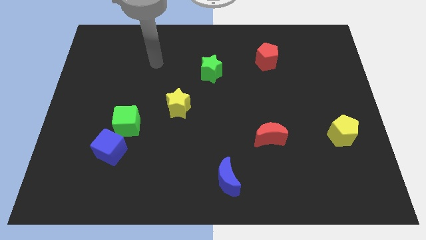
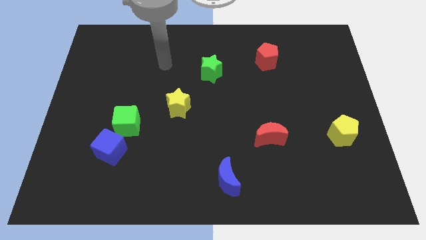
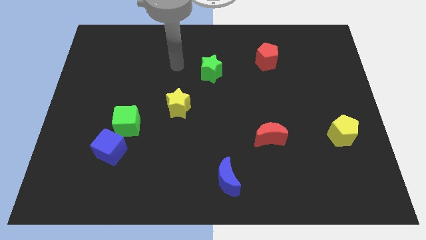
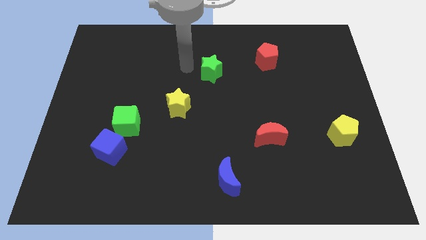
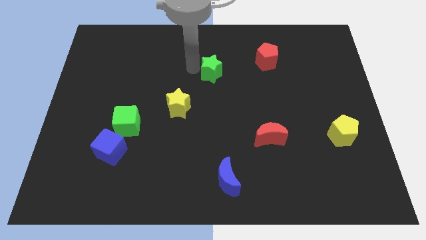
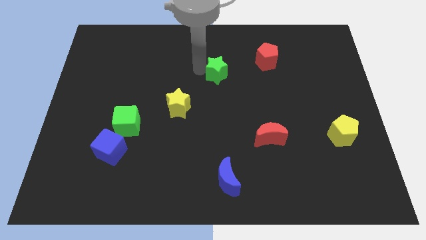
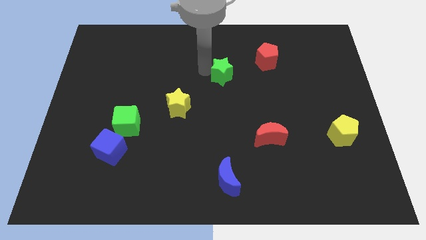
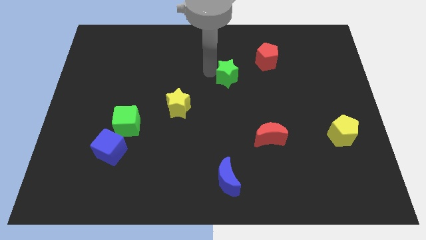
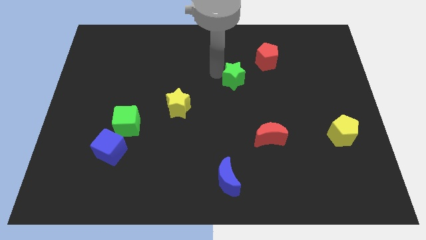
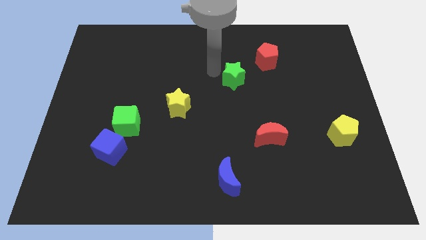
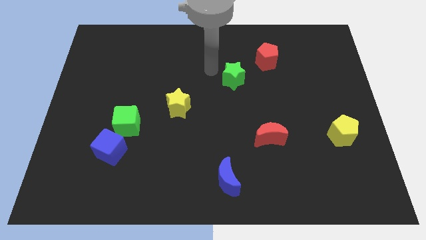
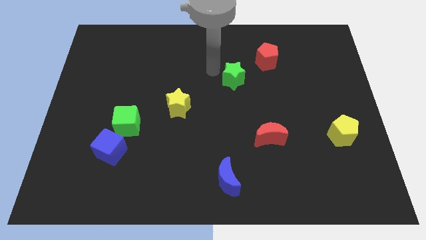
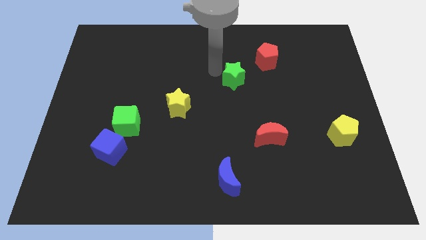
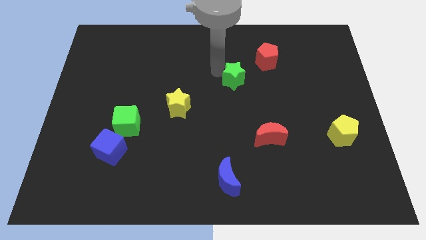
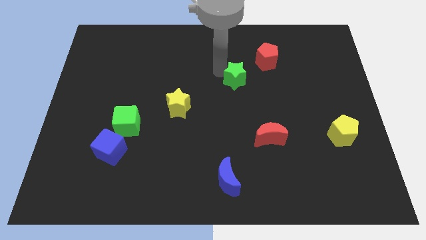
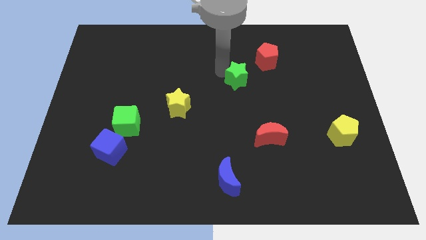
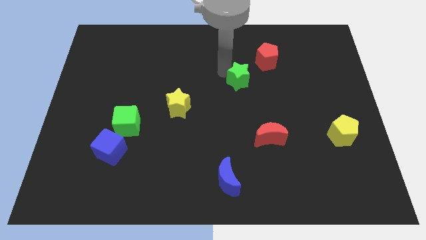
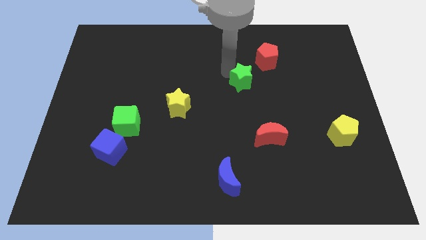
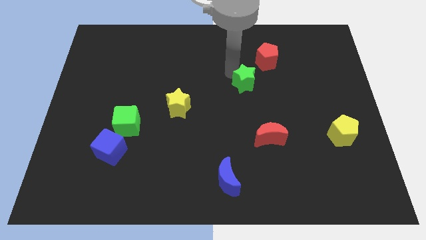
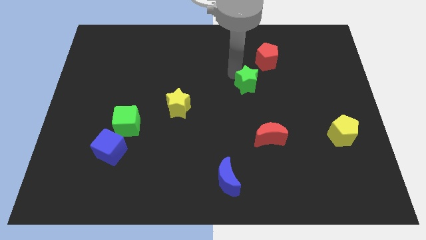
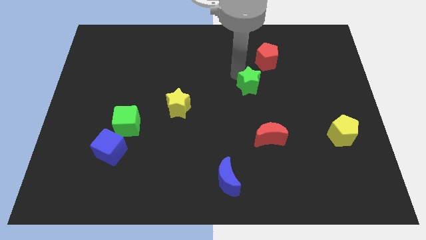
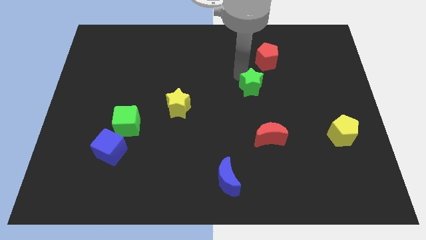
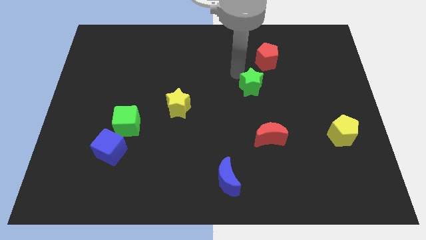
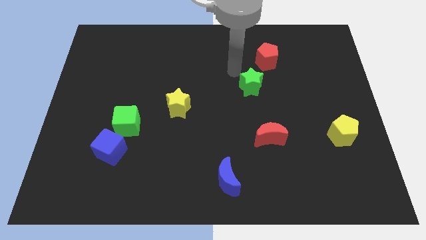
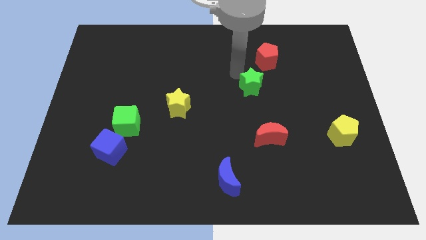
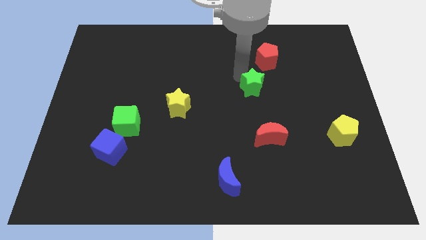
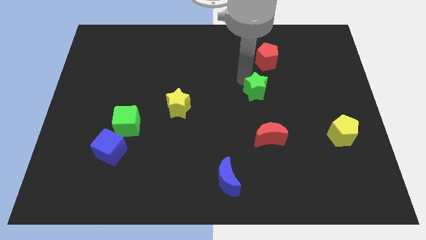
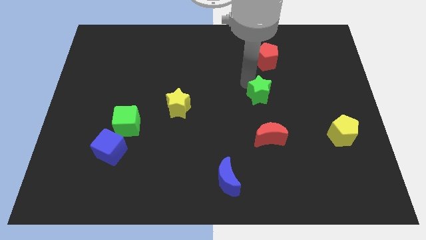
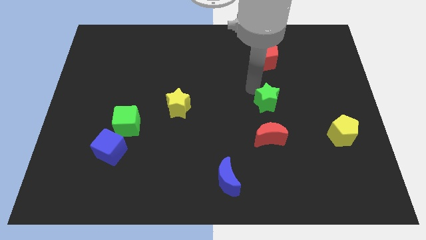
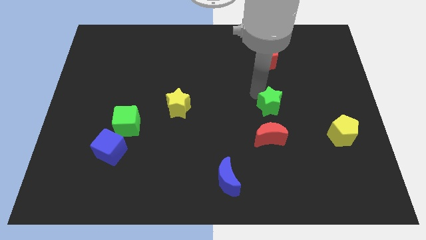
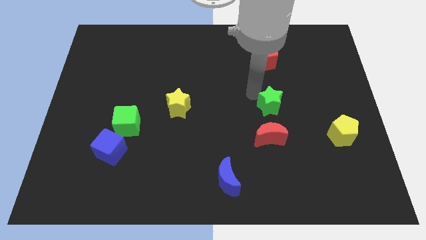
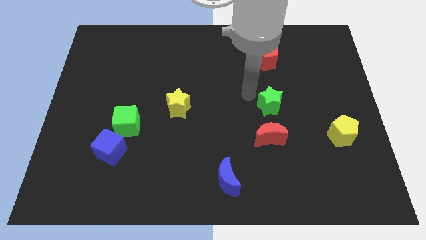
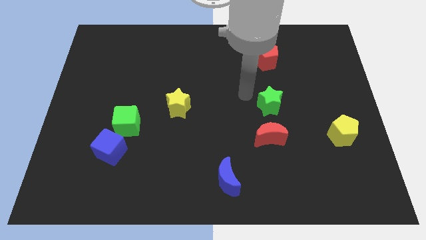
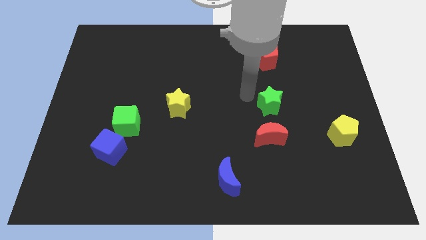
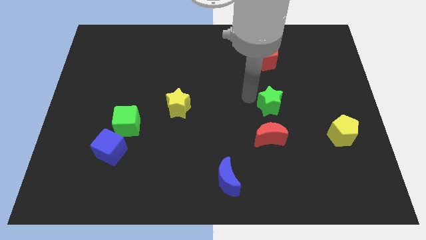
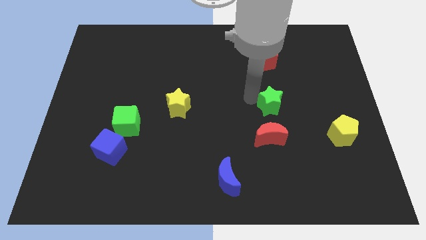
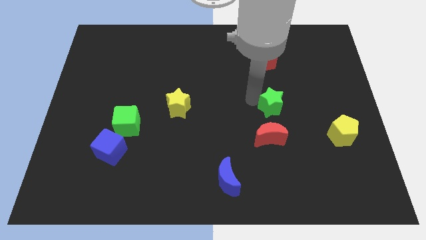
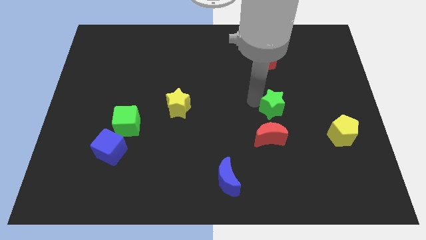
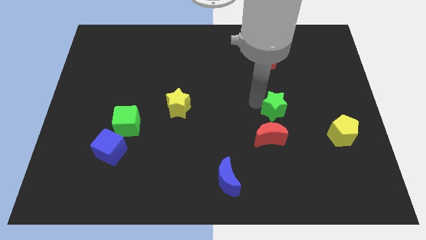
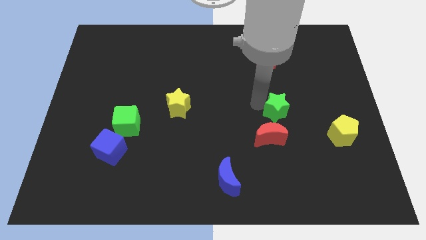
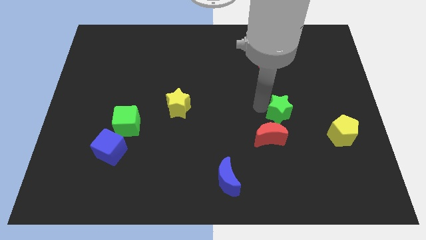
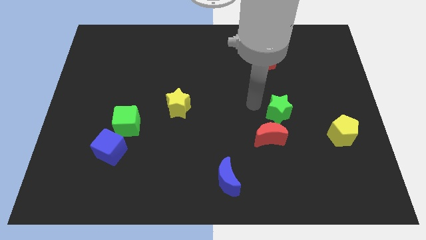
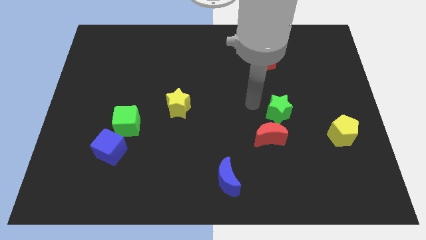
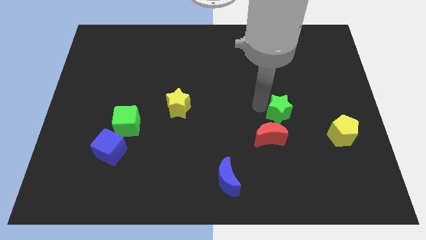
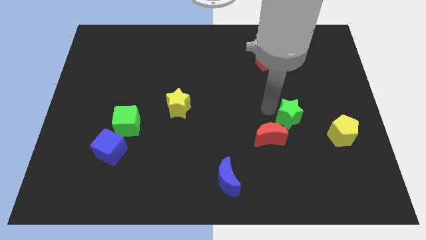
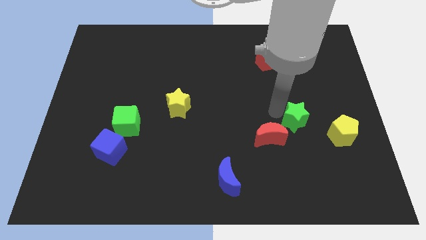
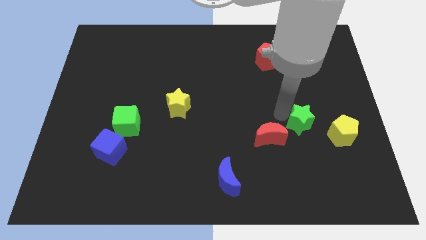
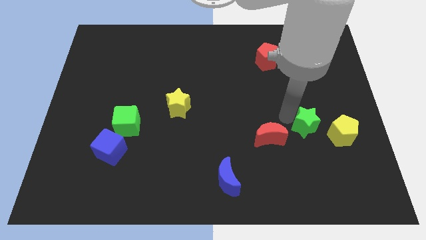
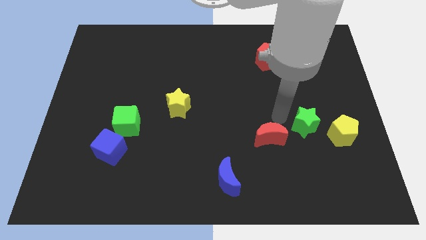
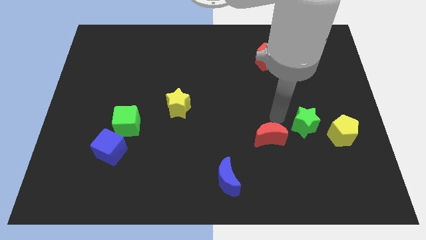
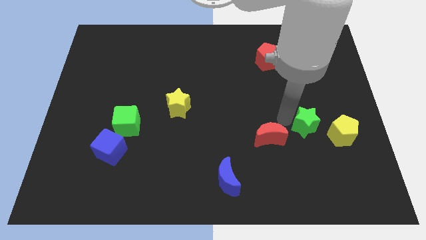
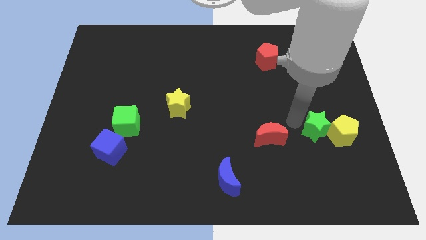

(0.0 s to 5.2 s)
push the green star close to the yellow pentagon

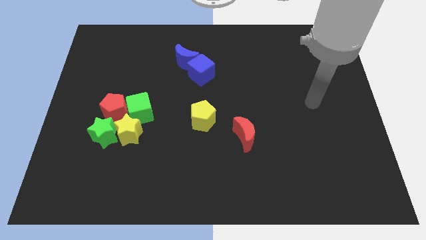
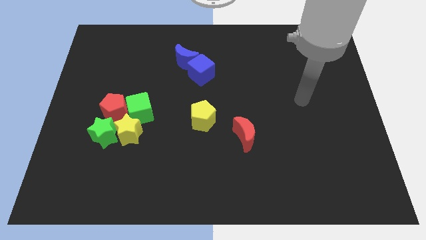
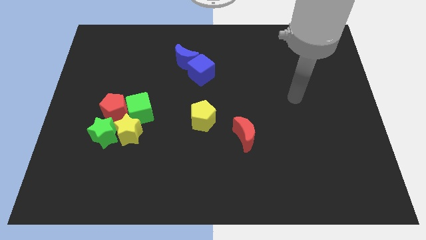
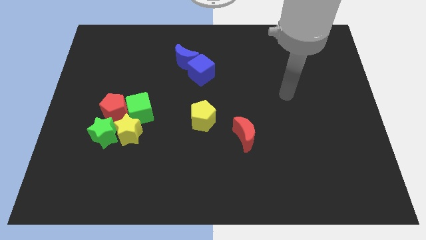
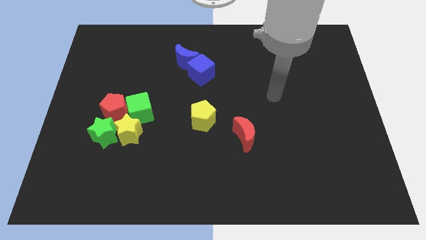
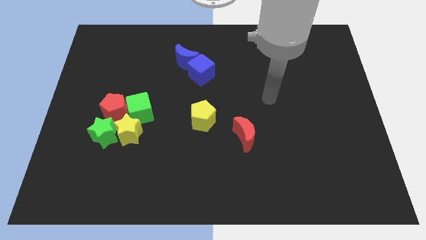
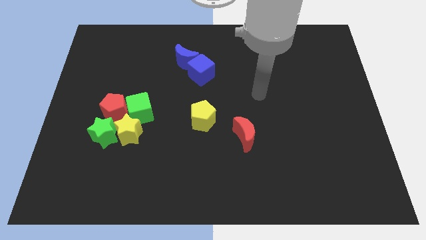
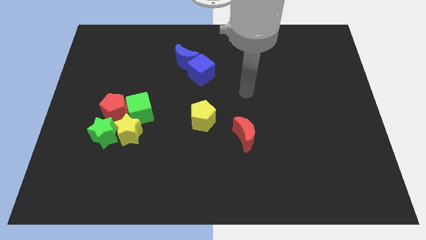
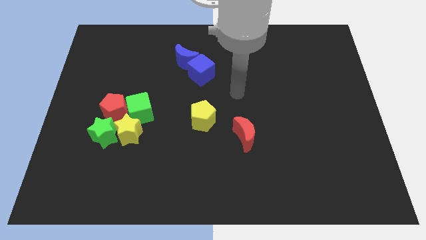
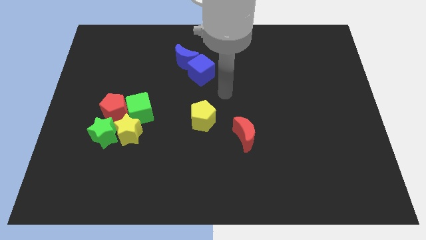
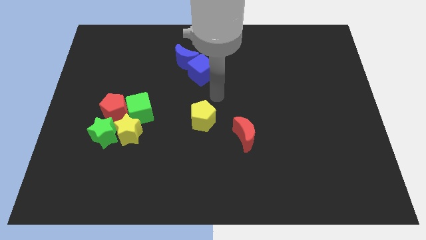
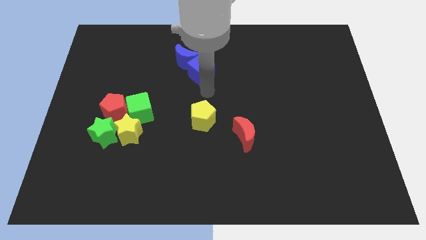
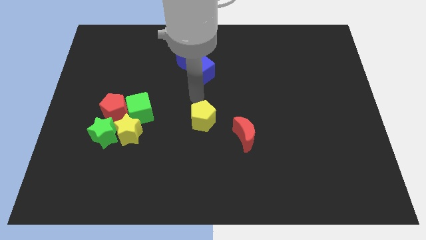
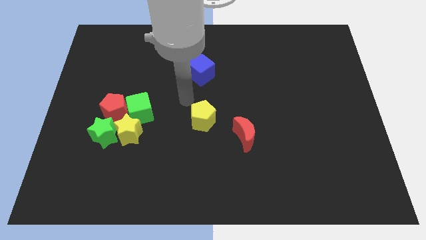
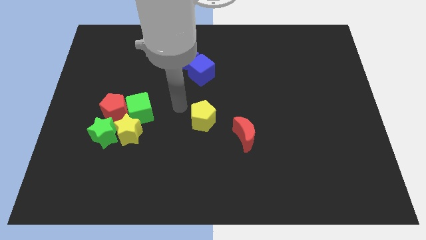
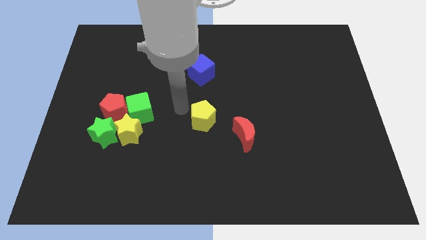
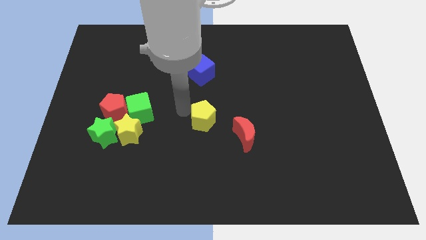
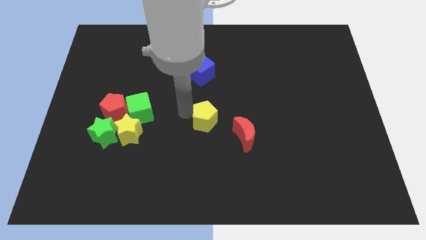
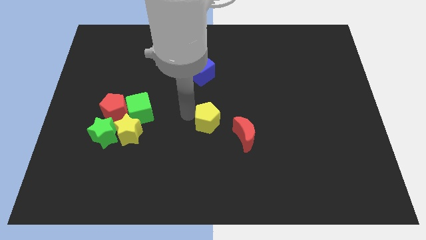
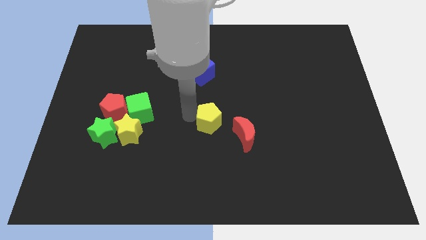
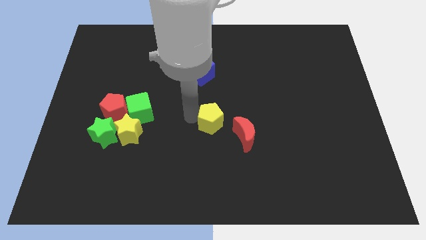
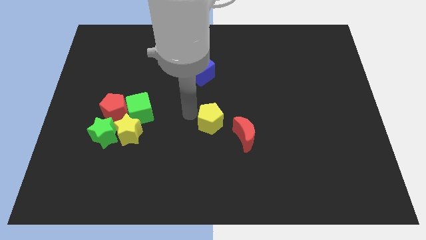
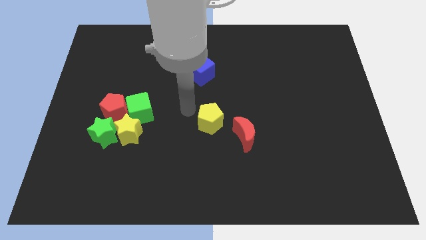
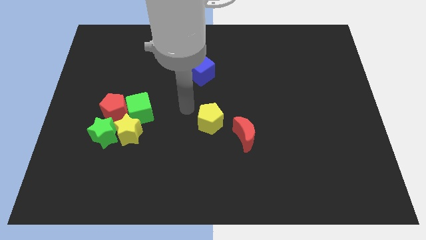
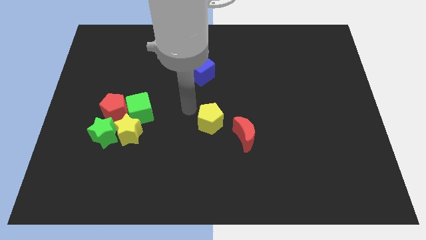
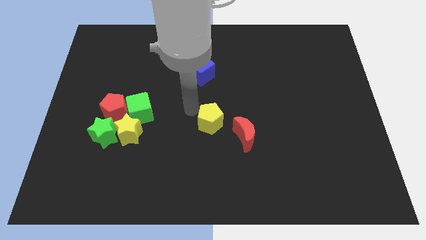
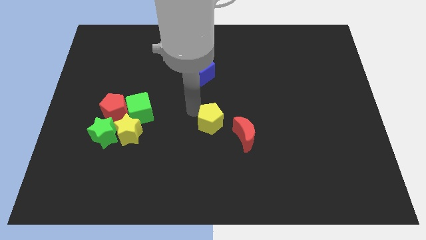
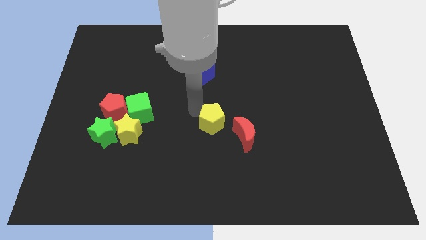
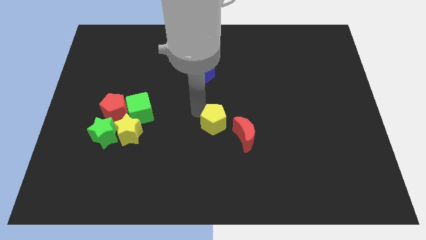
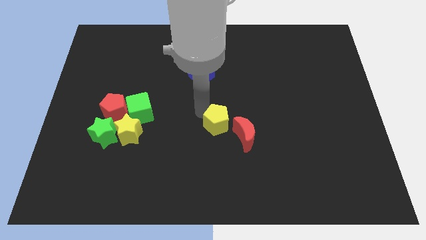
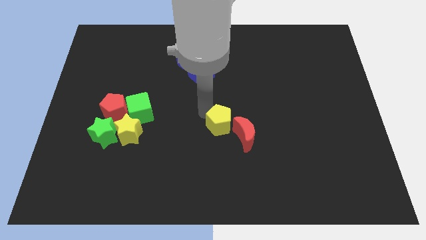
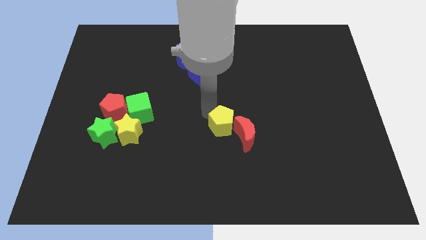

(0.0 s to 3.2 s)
put the yellow pentagon towards the red moon
